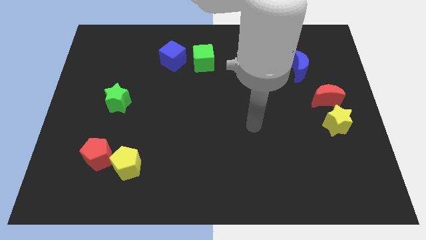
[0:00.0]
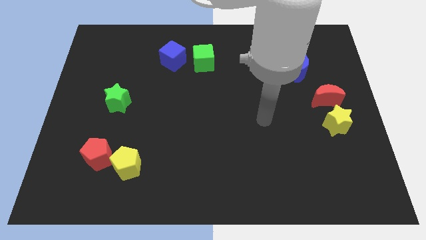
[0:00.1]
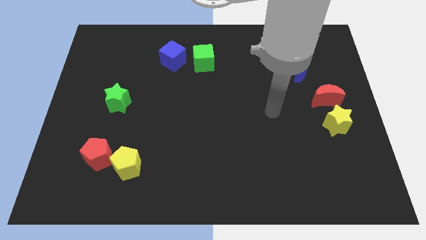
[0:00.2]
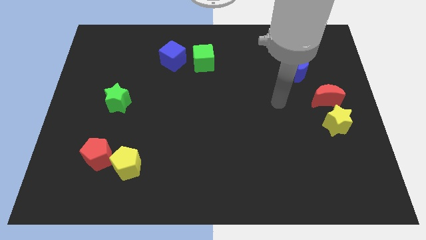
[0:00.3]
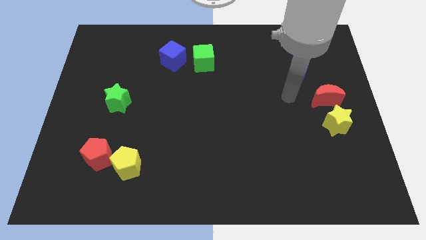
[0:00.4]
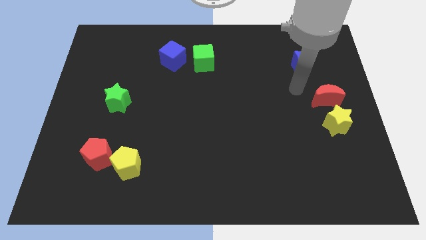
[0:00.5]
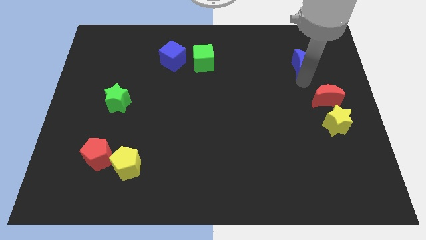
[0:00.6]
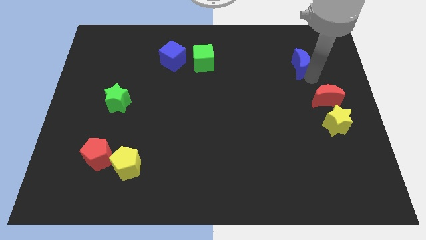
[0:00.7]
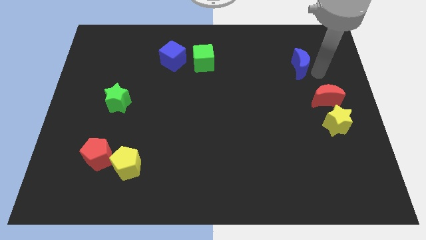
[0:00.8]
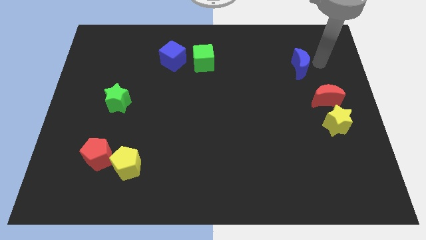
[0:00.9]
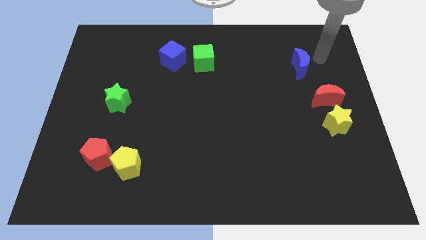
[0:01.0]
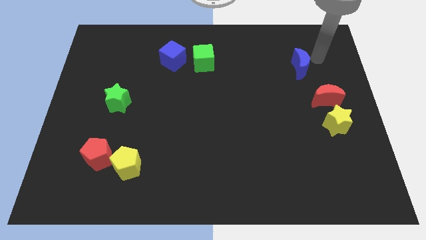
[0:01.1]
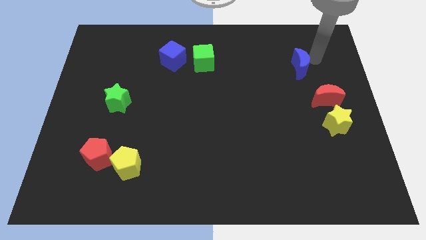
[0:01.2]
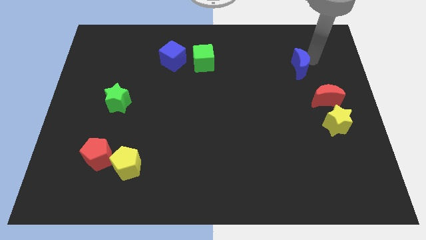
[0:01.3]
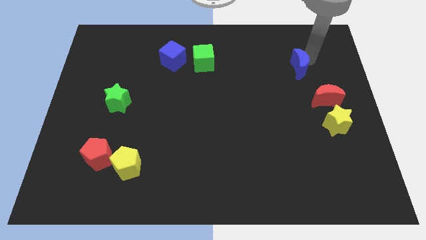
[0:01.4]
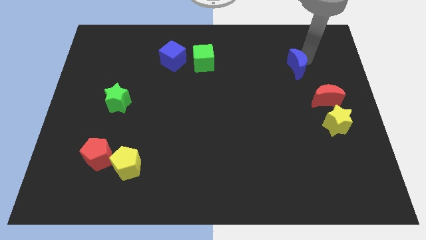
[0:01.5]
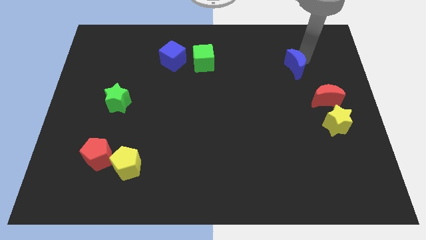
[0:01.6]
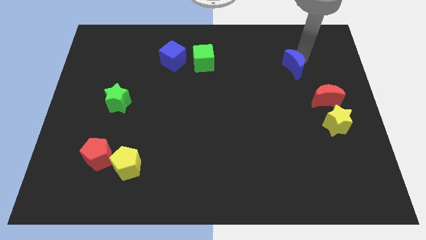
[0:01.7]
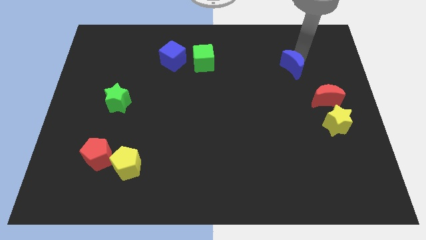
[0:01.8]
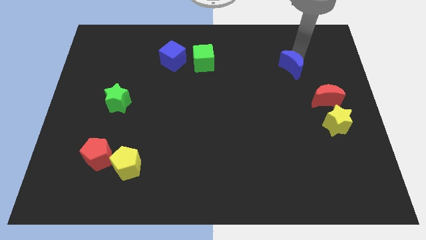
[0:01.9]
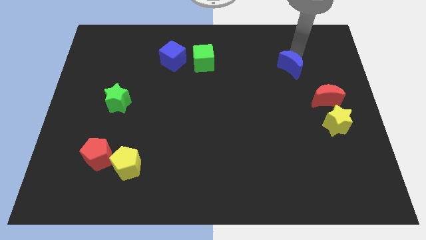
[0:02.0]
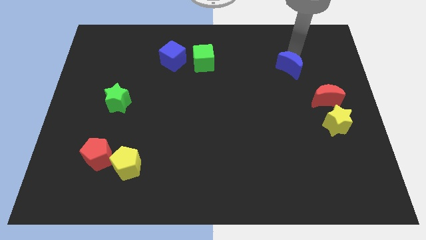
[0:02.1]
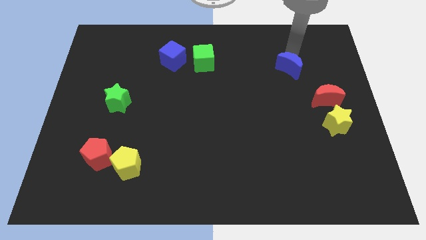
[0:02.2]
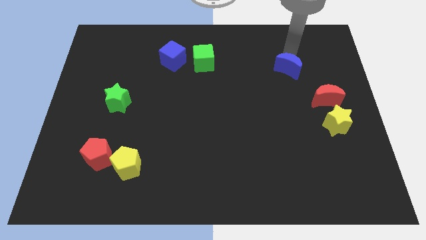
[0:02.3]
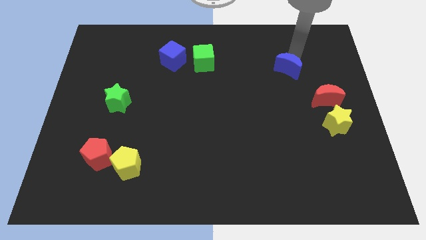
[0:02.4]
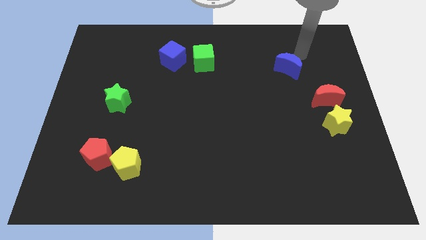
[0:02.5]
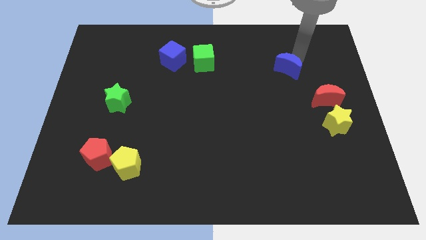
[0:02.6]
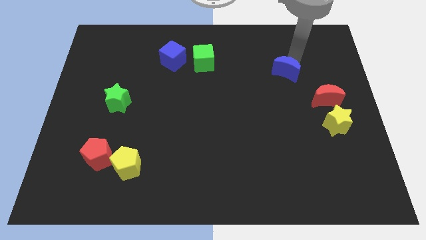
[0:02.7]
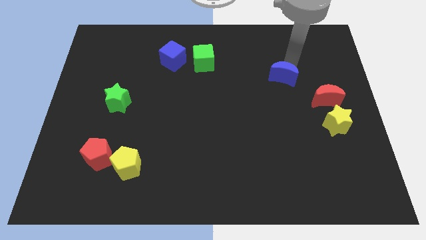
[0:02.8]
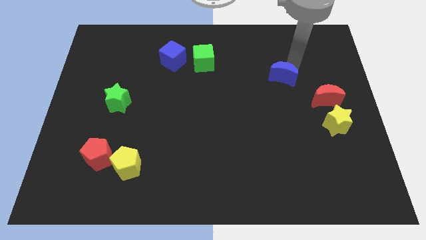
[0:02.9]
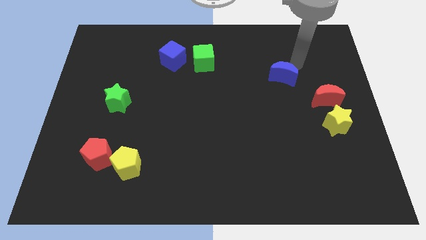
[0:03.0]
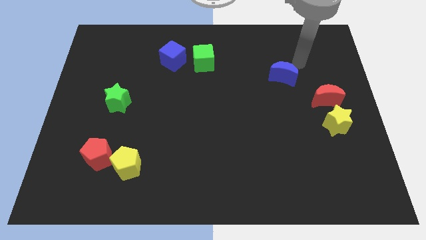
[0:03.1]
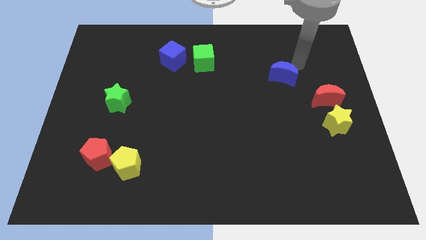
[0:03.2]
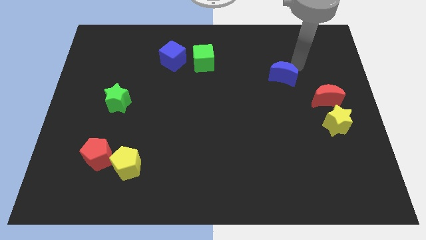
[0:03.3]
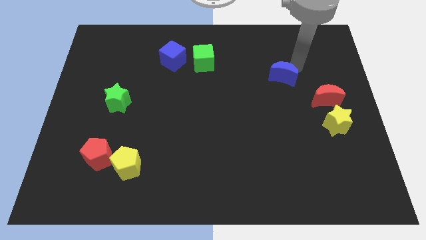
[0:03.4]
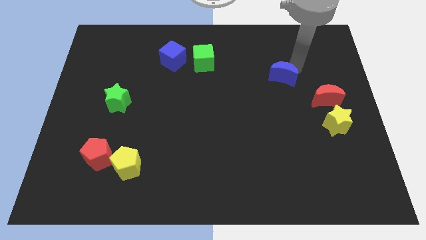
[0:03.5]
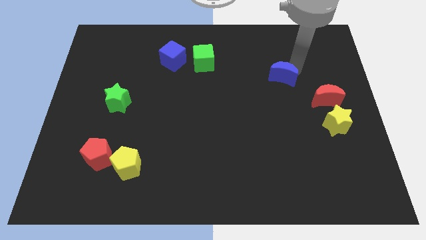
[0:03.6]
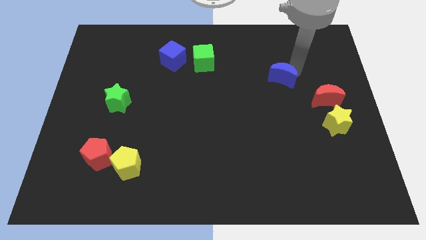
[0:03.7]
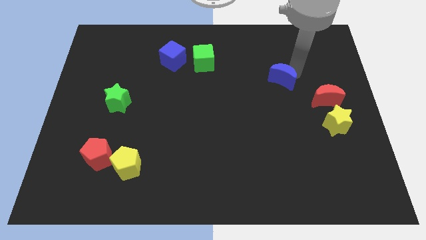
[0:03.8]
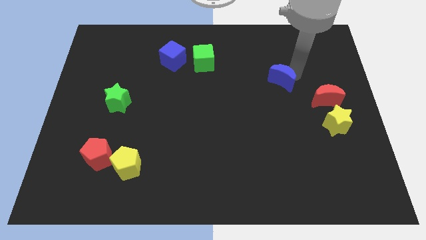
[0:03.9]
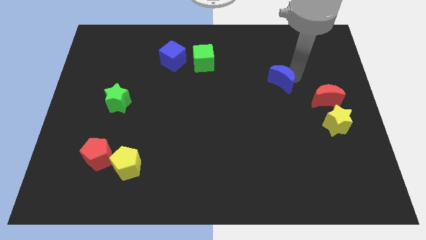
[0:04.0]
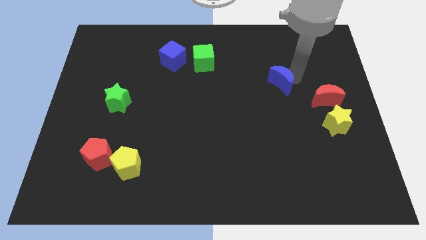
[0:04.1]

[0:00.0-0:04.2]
push the blue moon down and left diagonally slightly

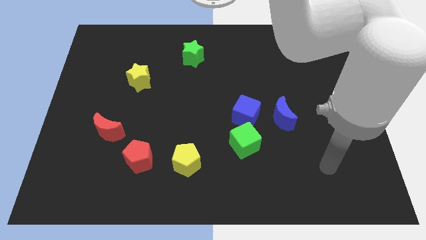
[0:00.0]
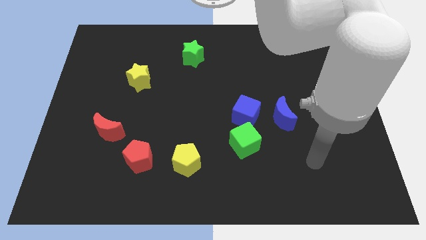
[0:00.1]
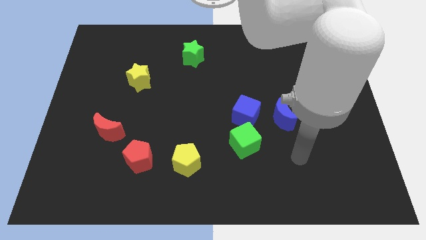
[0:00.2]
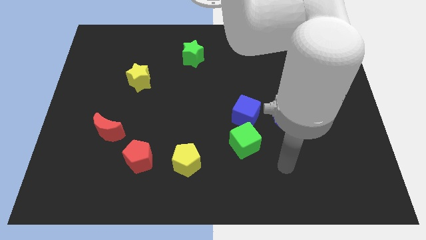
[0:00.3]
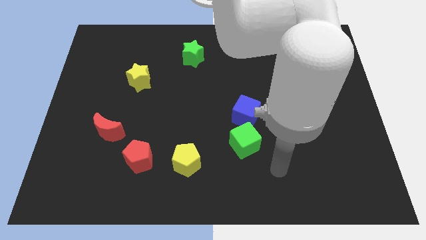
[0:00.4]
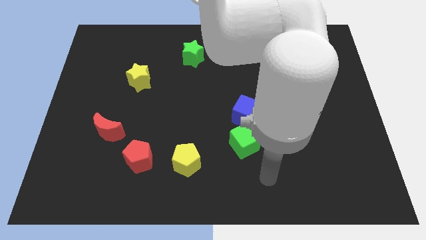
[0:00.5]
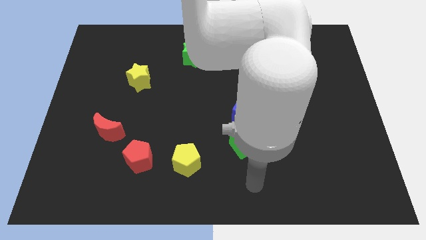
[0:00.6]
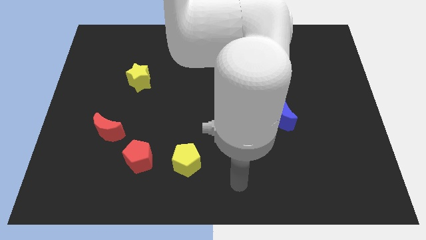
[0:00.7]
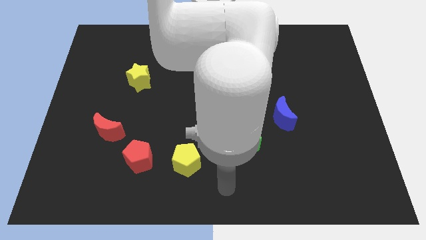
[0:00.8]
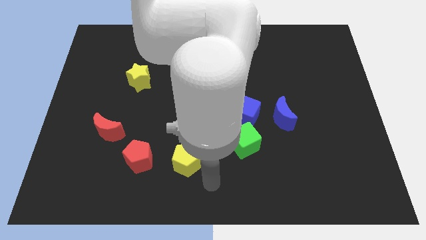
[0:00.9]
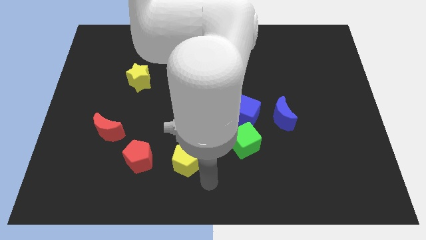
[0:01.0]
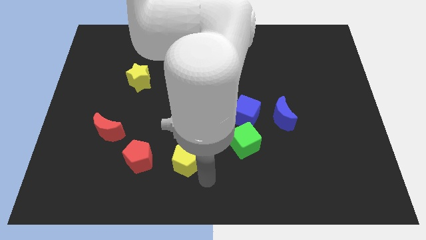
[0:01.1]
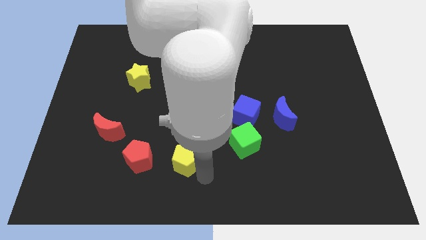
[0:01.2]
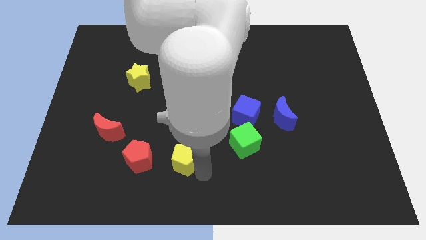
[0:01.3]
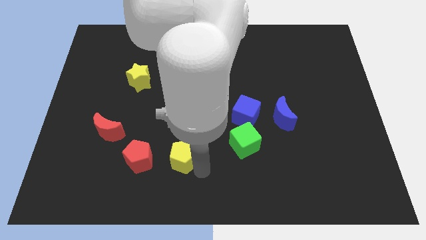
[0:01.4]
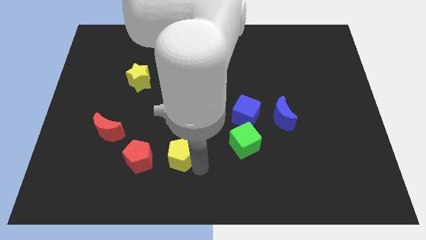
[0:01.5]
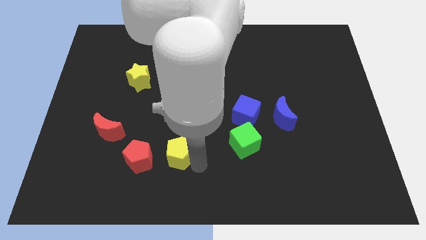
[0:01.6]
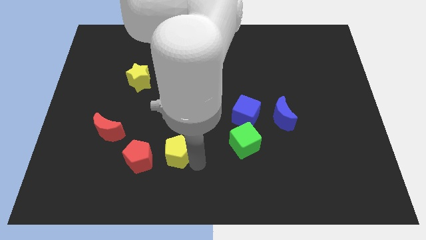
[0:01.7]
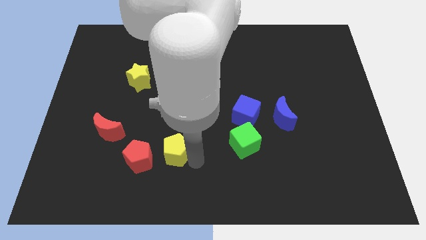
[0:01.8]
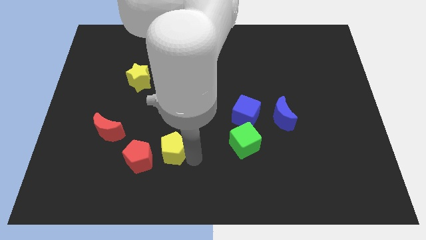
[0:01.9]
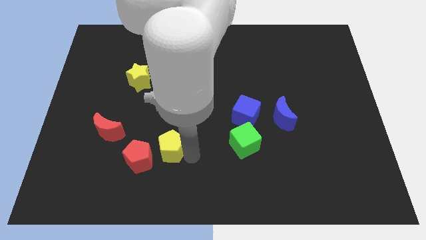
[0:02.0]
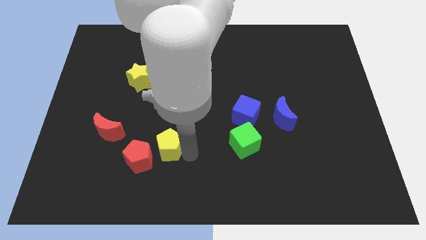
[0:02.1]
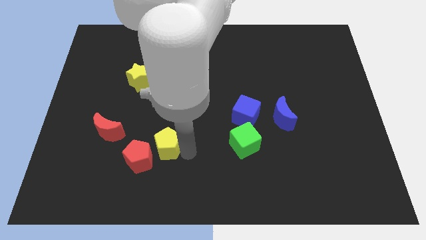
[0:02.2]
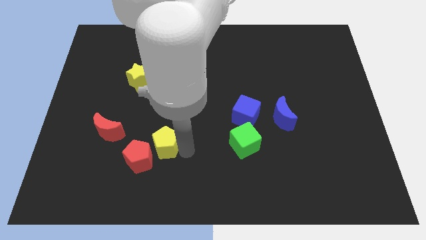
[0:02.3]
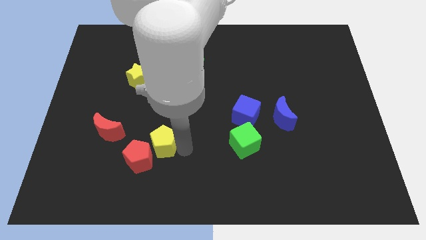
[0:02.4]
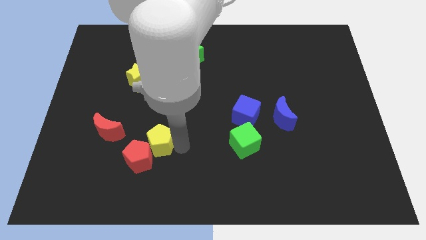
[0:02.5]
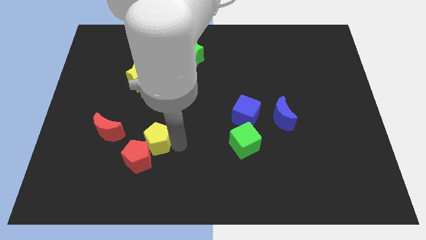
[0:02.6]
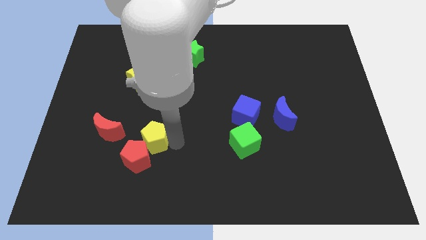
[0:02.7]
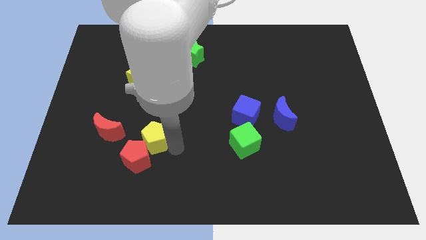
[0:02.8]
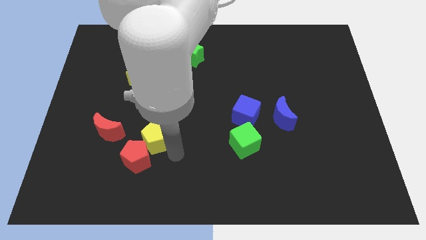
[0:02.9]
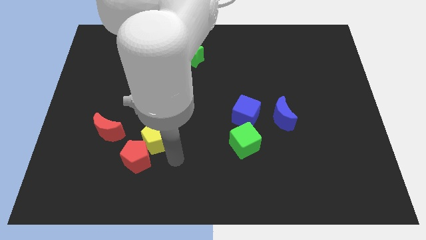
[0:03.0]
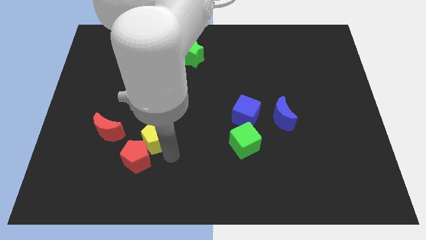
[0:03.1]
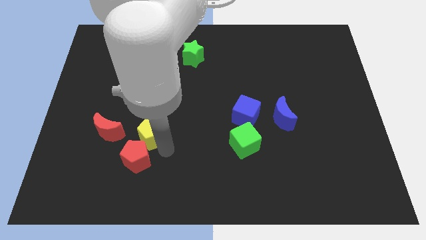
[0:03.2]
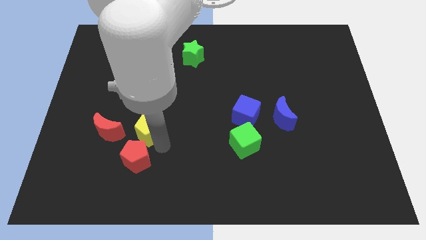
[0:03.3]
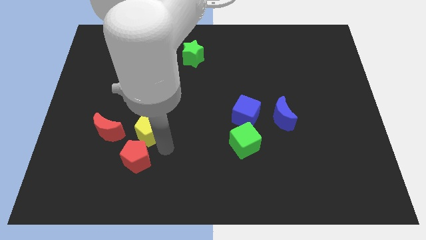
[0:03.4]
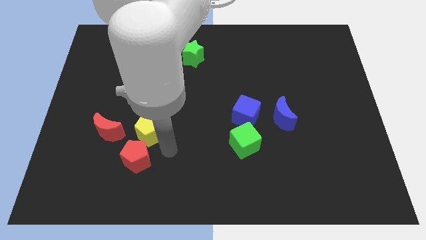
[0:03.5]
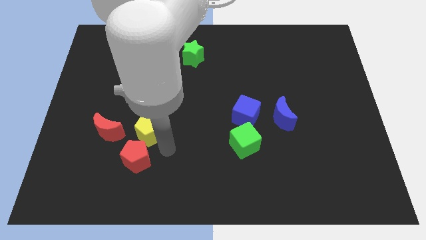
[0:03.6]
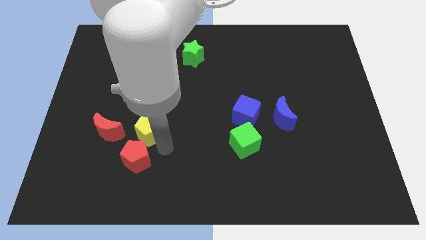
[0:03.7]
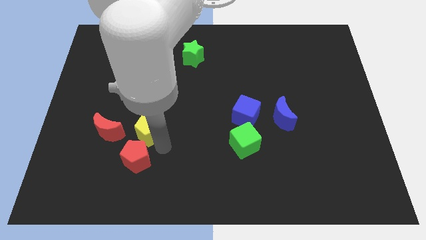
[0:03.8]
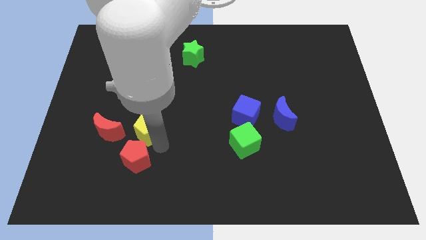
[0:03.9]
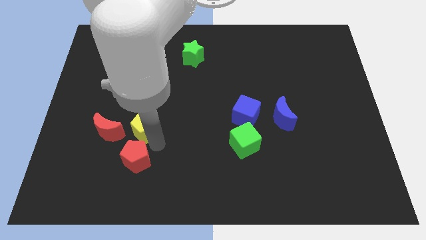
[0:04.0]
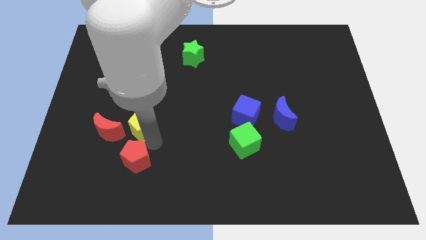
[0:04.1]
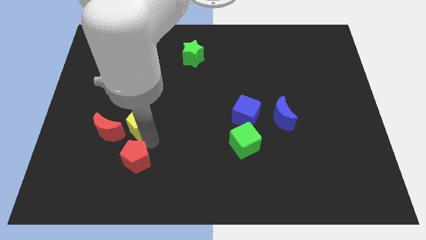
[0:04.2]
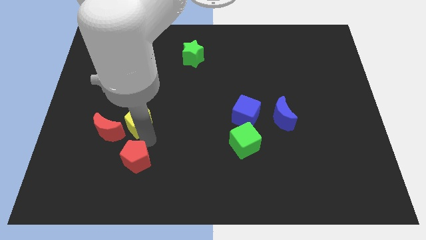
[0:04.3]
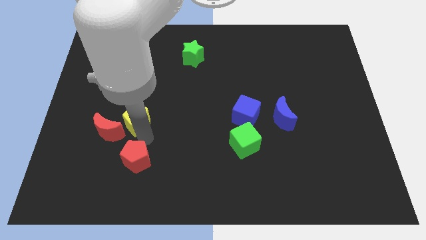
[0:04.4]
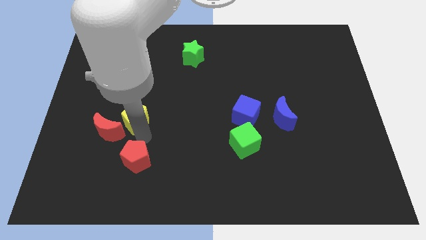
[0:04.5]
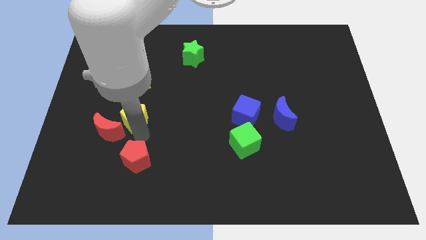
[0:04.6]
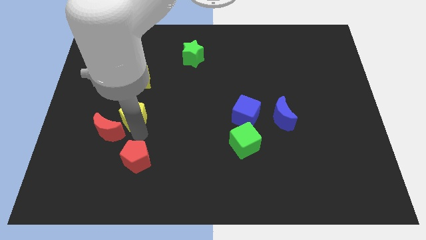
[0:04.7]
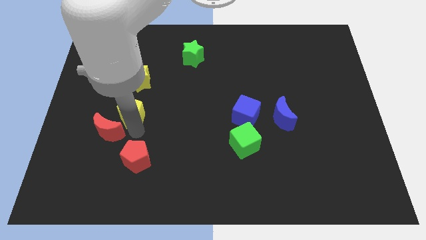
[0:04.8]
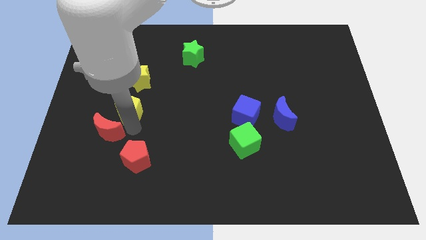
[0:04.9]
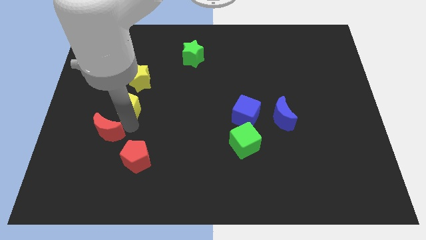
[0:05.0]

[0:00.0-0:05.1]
slide the yellow pentagon up and left
